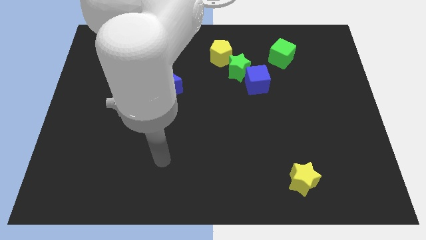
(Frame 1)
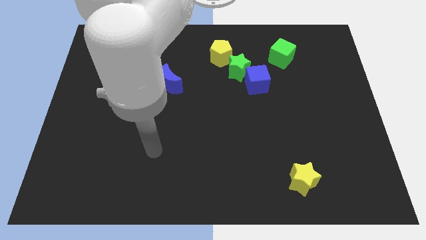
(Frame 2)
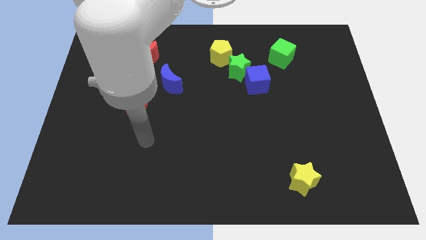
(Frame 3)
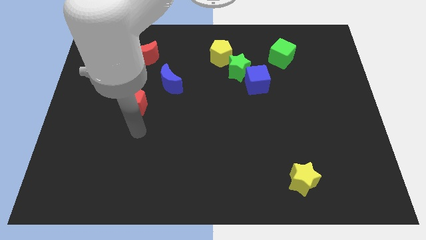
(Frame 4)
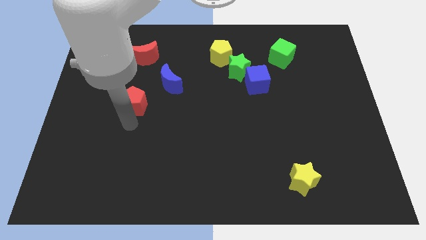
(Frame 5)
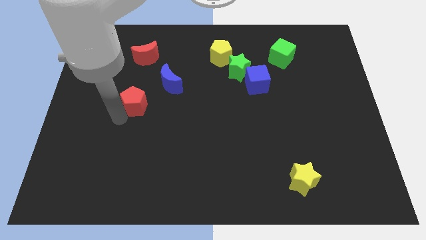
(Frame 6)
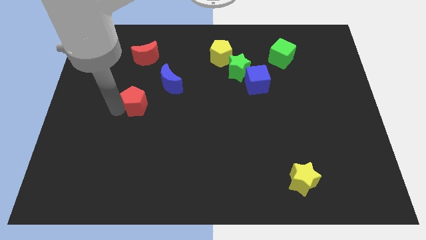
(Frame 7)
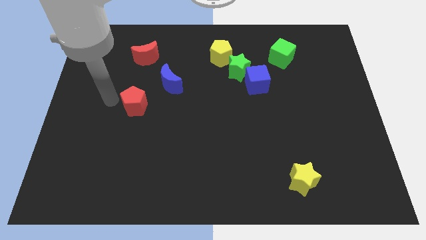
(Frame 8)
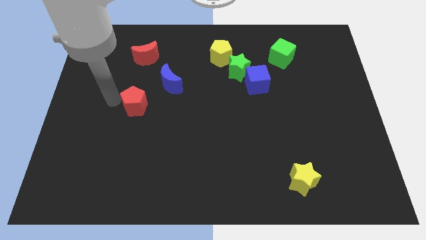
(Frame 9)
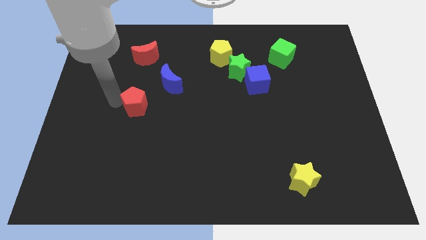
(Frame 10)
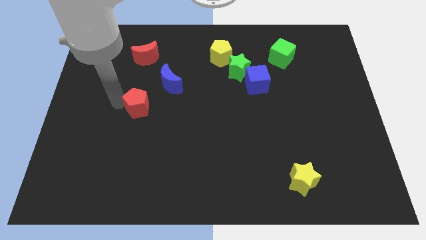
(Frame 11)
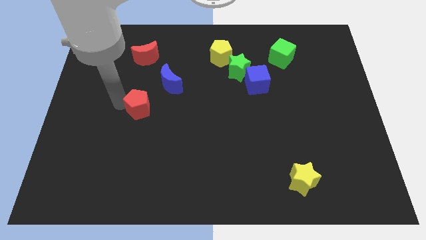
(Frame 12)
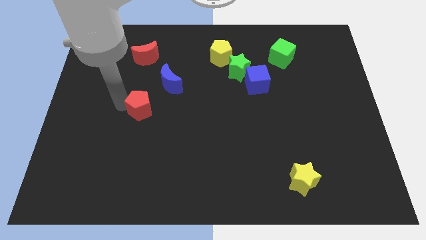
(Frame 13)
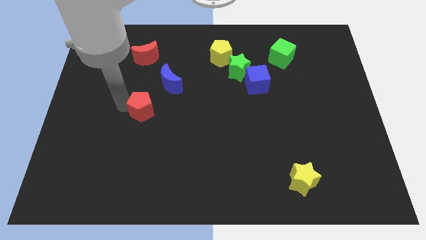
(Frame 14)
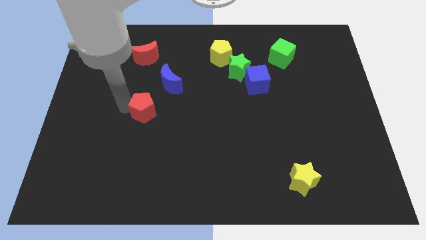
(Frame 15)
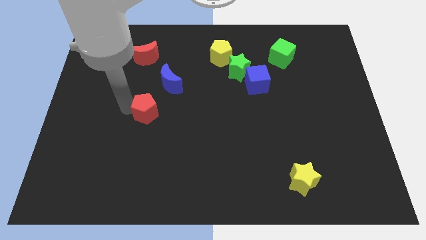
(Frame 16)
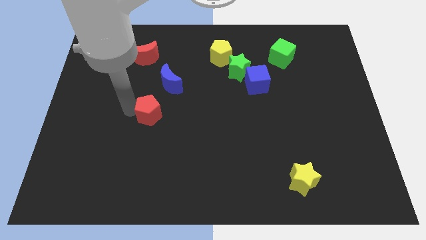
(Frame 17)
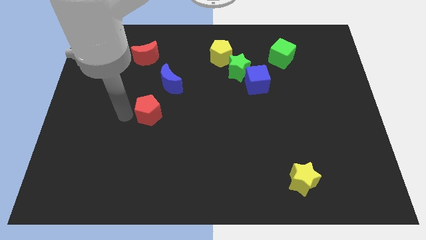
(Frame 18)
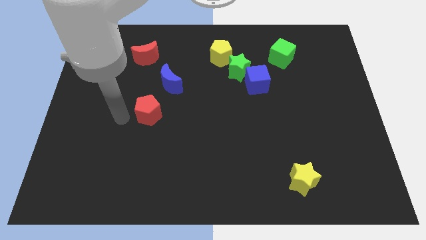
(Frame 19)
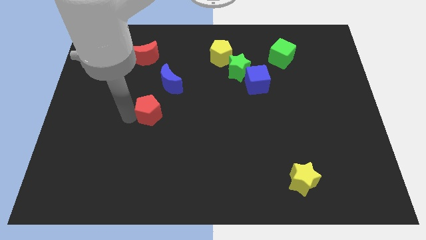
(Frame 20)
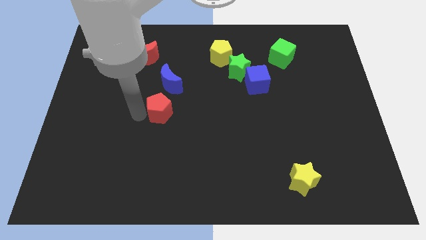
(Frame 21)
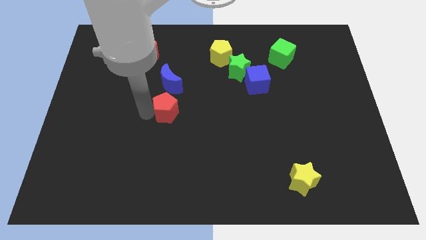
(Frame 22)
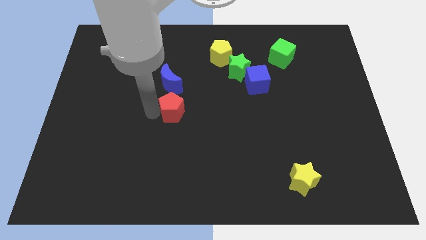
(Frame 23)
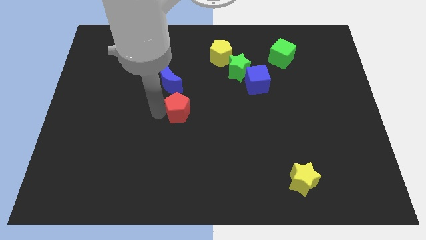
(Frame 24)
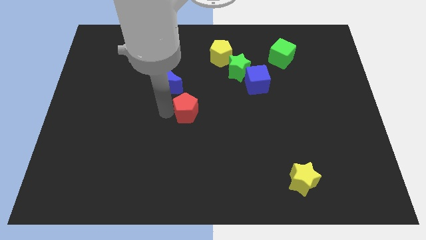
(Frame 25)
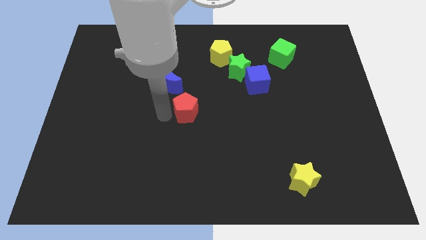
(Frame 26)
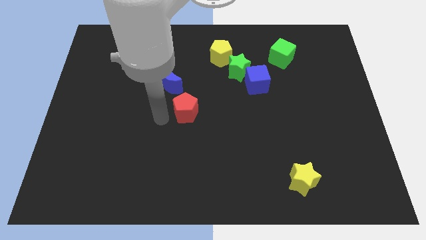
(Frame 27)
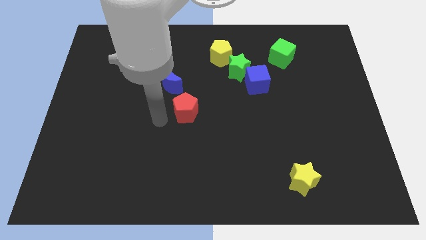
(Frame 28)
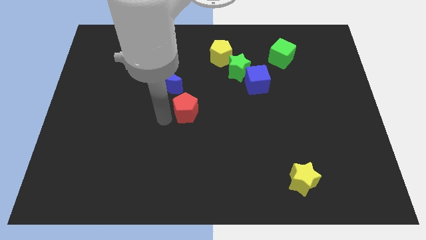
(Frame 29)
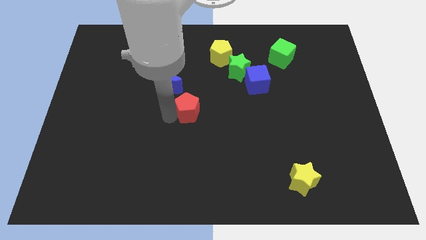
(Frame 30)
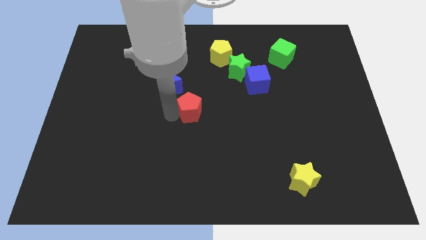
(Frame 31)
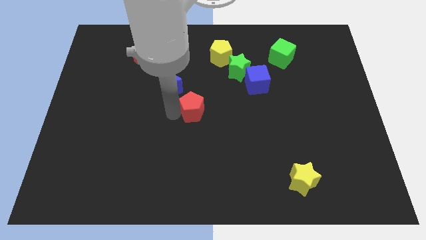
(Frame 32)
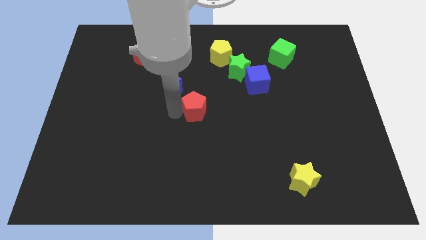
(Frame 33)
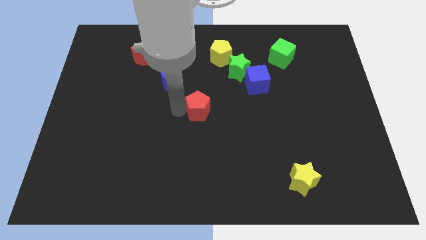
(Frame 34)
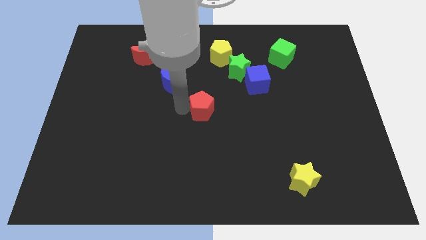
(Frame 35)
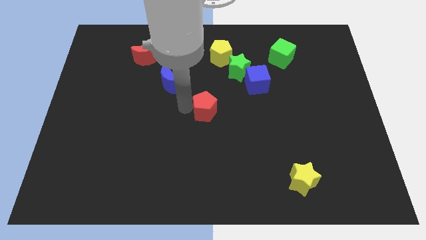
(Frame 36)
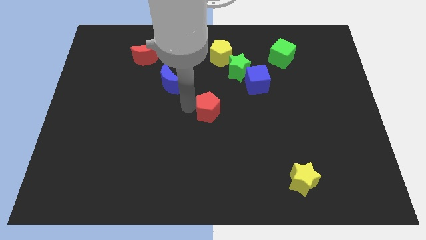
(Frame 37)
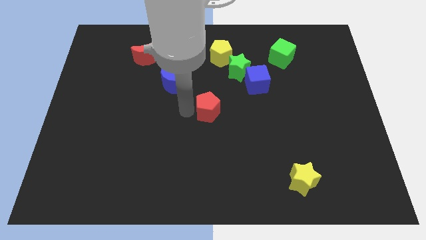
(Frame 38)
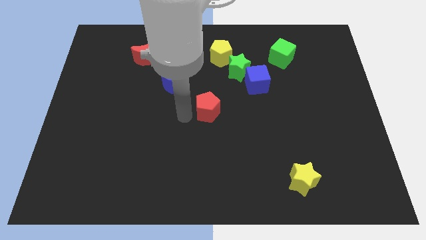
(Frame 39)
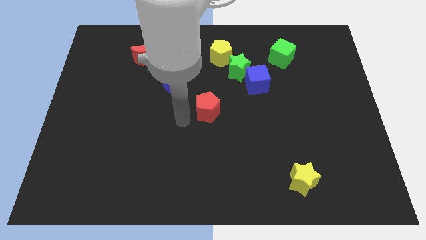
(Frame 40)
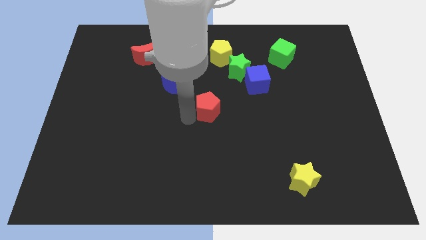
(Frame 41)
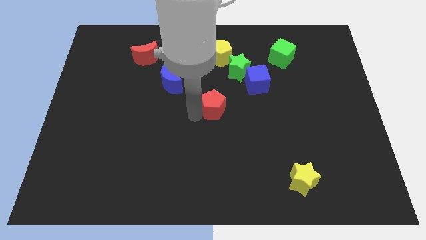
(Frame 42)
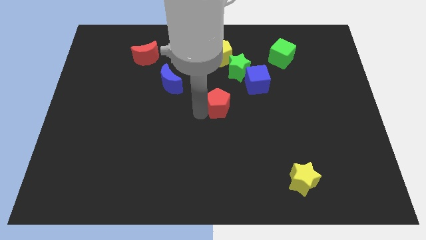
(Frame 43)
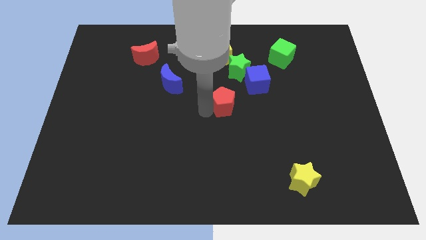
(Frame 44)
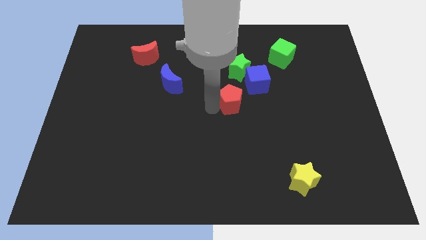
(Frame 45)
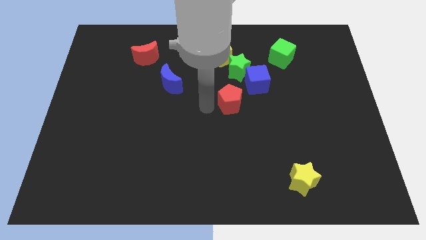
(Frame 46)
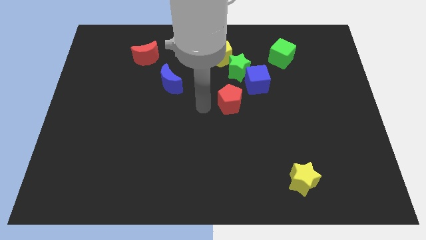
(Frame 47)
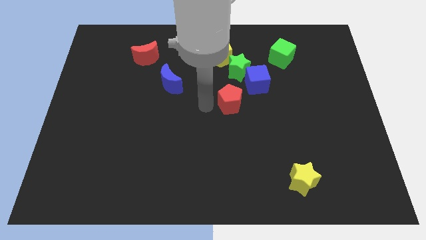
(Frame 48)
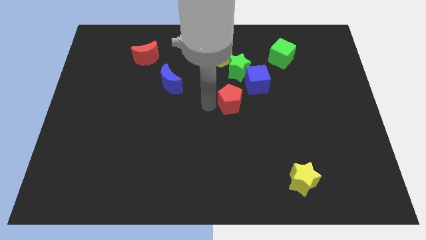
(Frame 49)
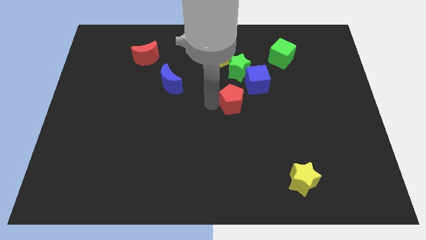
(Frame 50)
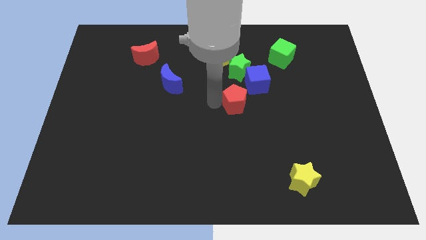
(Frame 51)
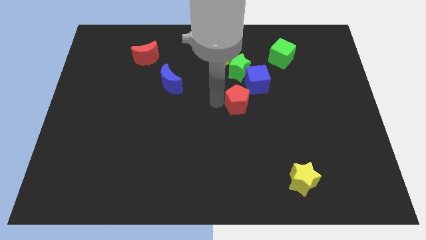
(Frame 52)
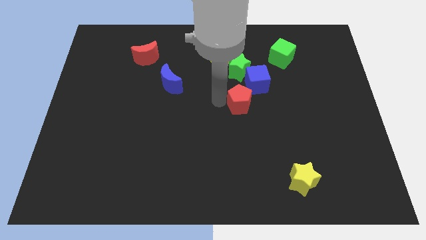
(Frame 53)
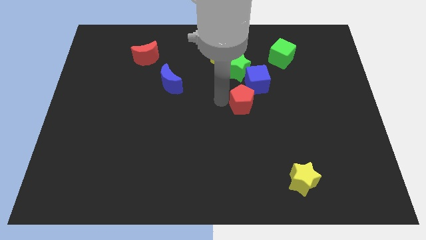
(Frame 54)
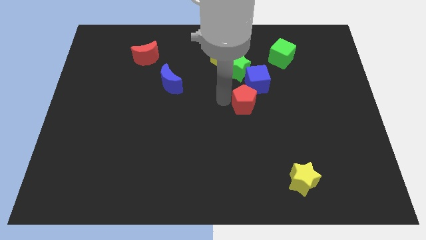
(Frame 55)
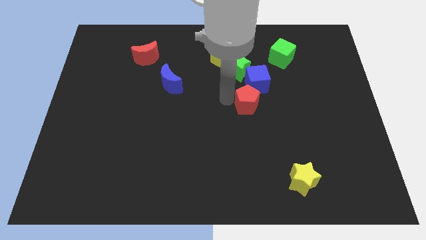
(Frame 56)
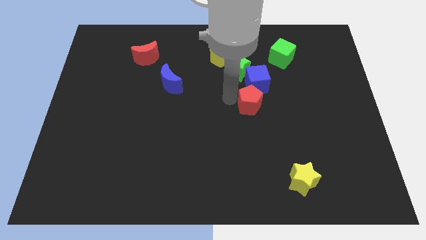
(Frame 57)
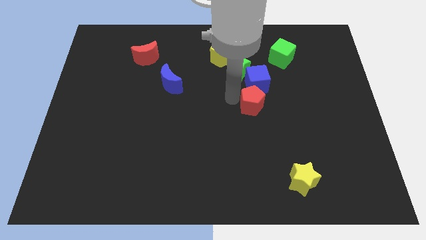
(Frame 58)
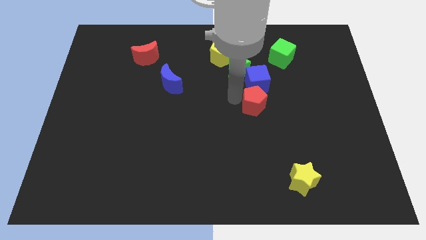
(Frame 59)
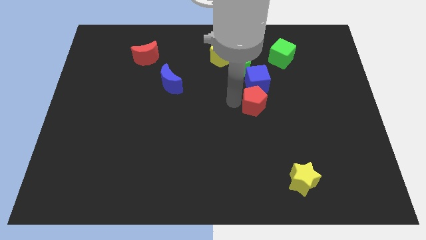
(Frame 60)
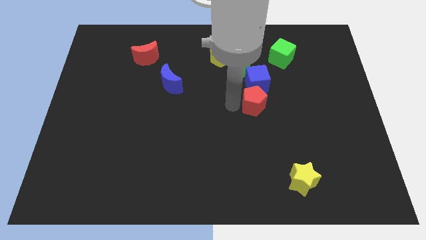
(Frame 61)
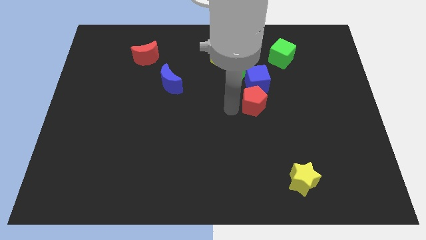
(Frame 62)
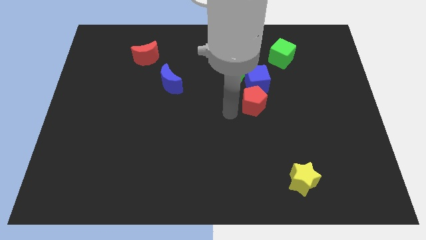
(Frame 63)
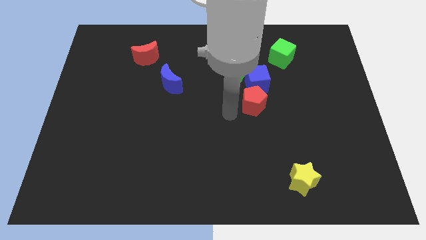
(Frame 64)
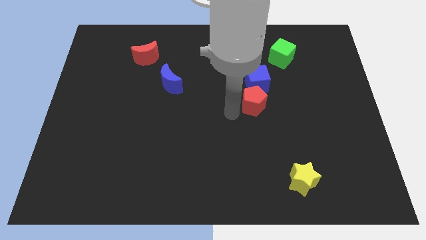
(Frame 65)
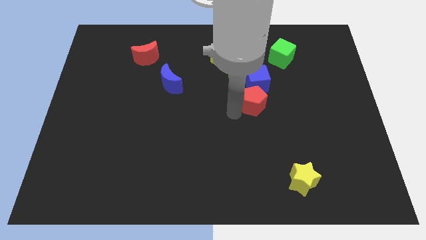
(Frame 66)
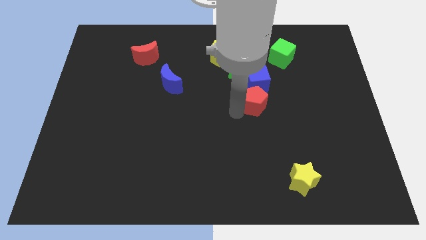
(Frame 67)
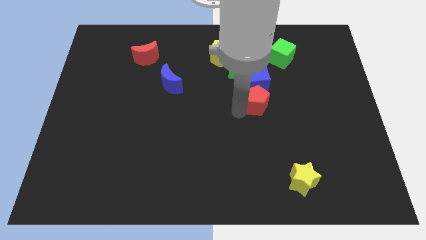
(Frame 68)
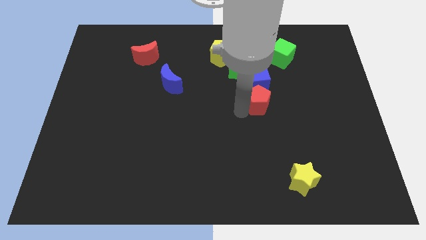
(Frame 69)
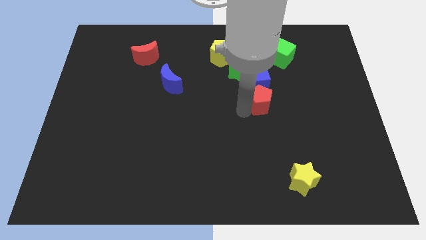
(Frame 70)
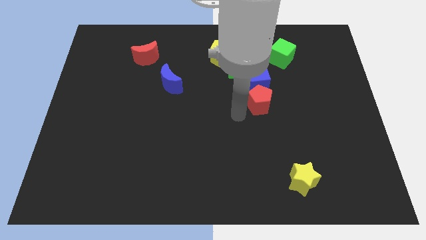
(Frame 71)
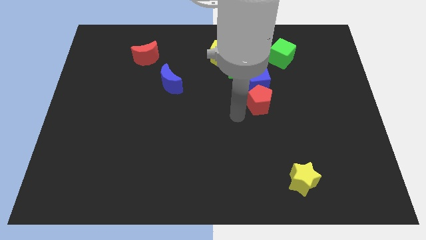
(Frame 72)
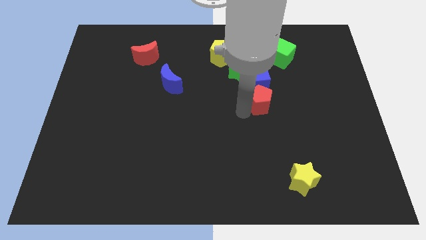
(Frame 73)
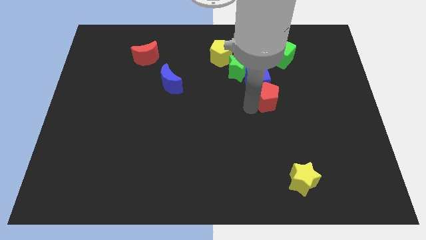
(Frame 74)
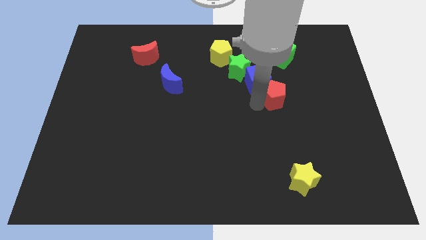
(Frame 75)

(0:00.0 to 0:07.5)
put the red pentagon to the bottom of the green cube

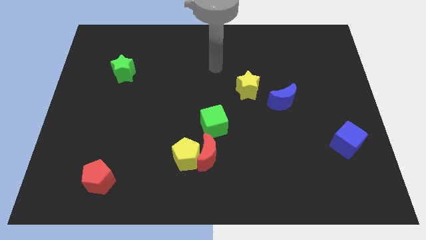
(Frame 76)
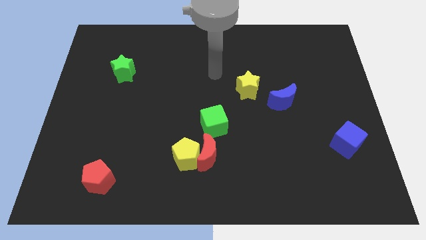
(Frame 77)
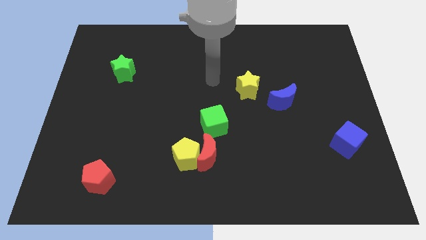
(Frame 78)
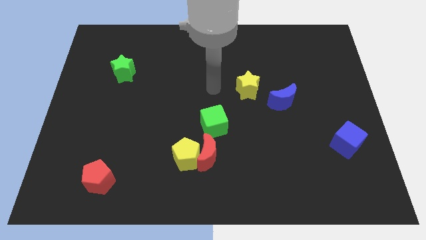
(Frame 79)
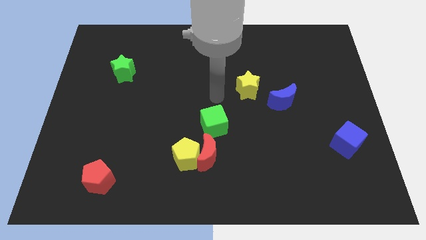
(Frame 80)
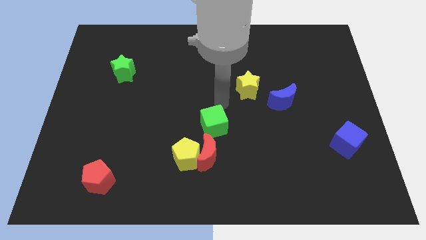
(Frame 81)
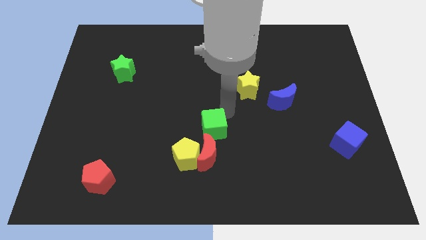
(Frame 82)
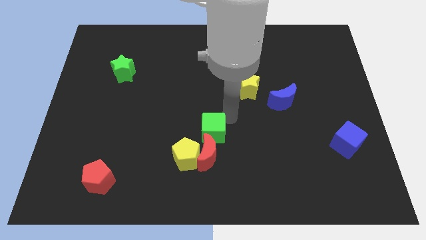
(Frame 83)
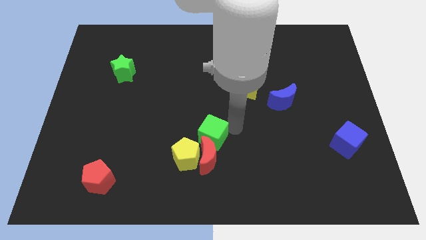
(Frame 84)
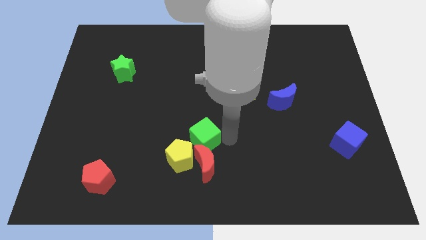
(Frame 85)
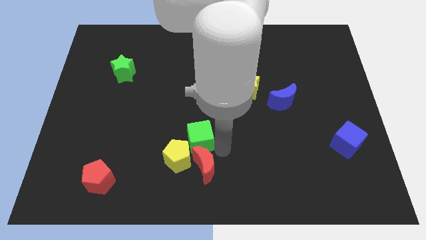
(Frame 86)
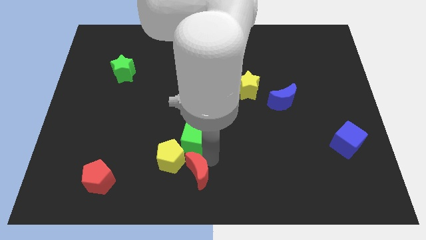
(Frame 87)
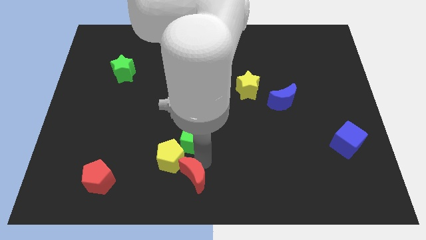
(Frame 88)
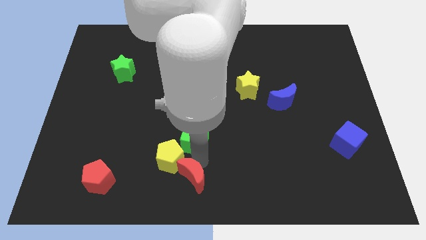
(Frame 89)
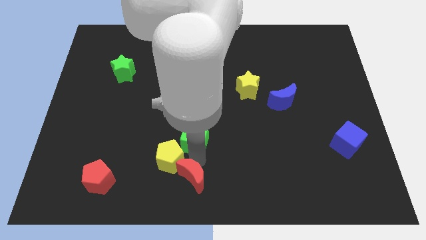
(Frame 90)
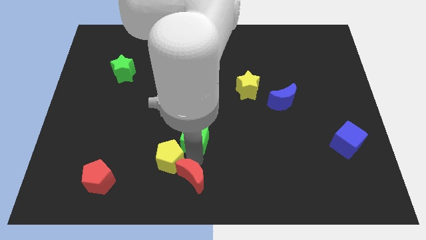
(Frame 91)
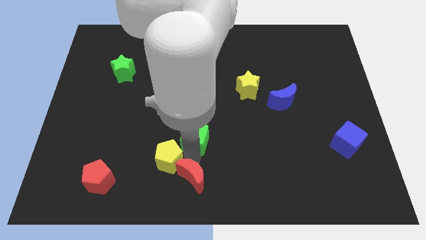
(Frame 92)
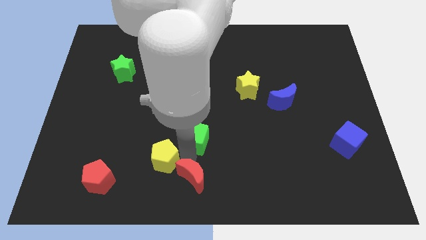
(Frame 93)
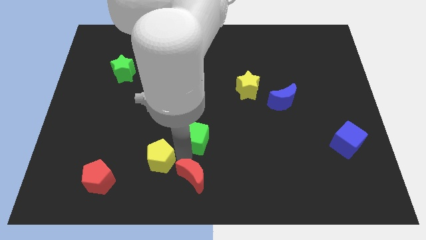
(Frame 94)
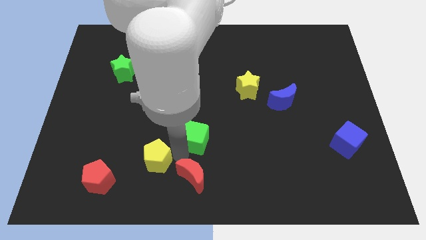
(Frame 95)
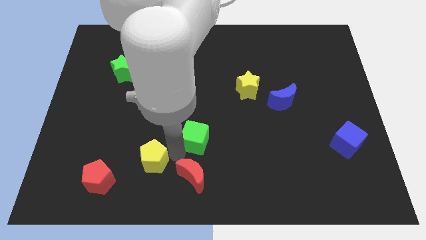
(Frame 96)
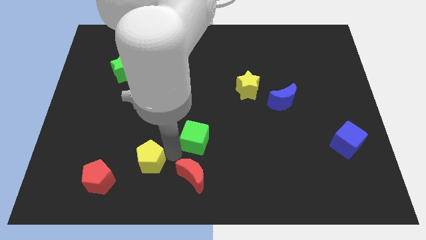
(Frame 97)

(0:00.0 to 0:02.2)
slide the yellow pentagon to the top right side of the red pentagon
